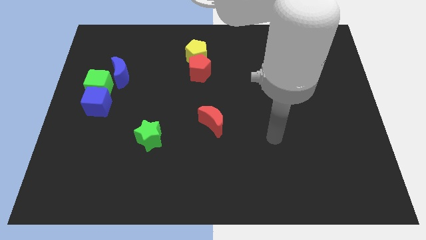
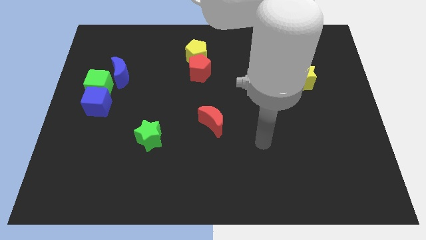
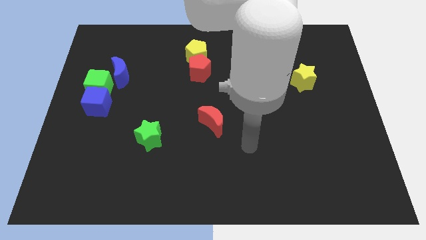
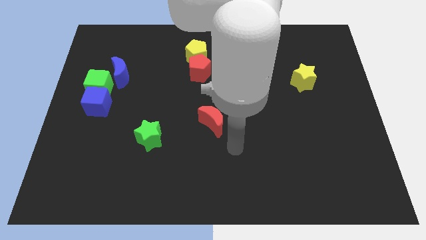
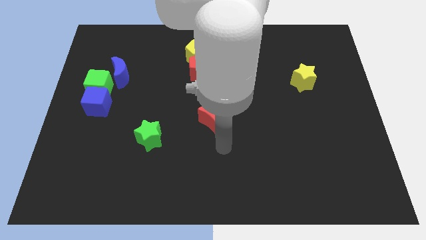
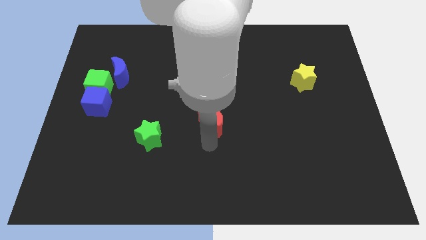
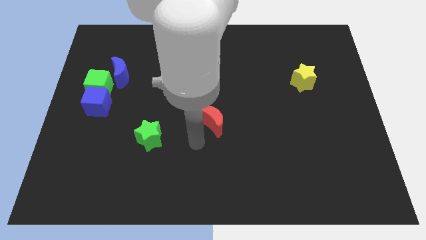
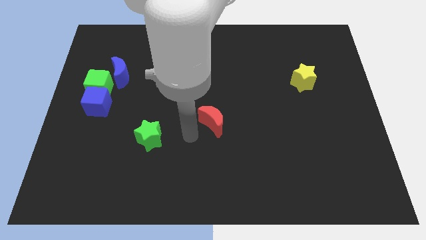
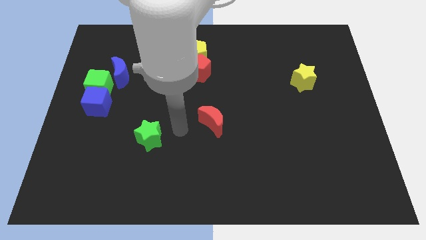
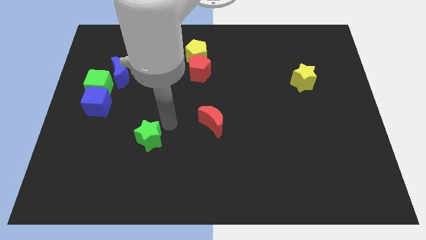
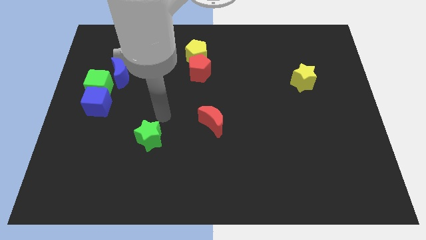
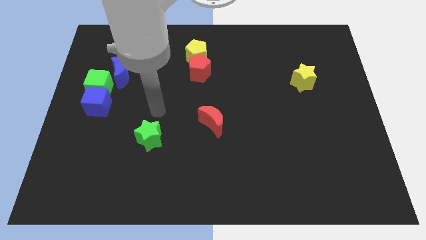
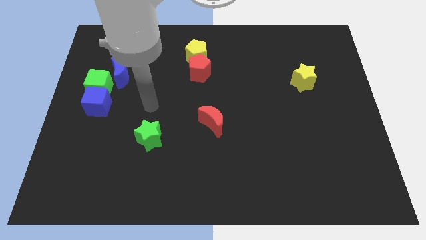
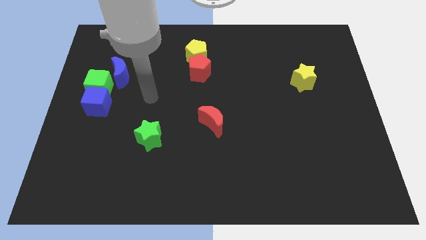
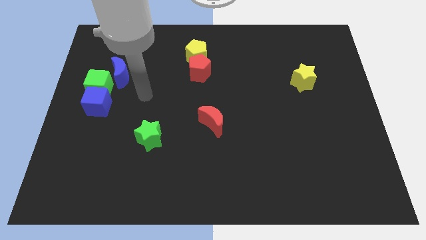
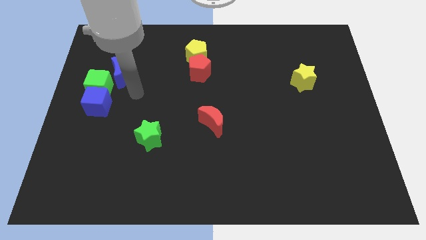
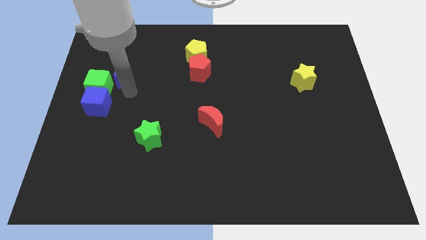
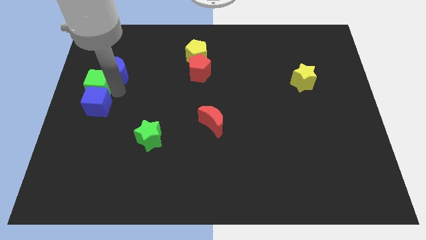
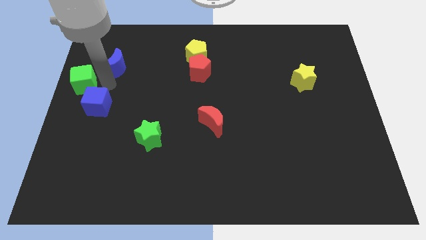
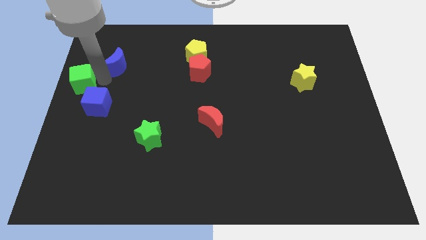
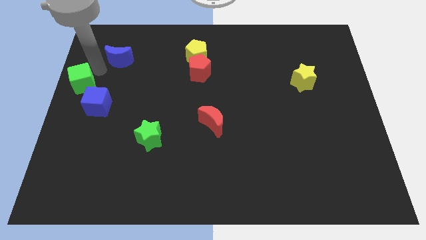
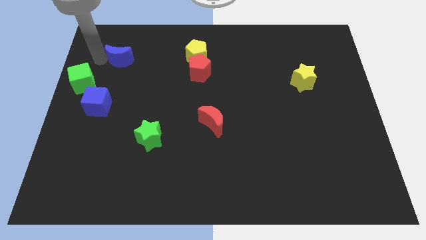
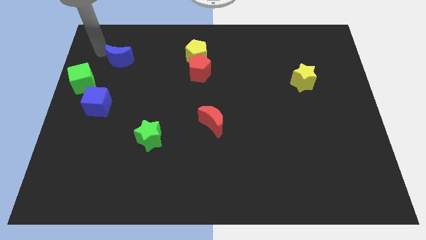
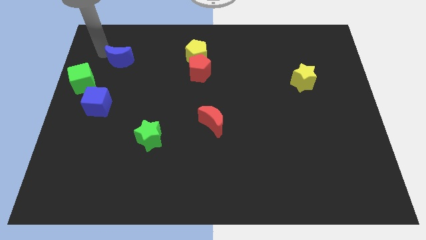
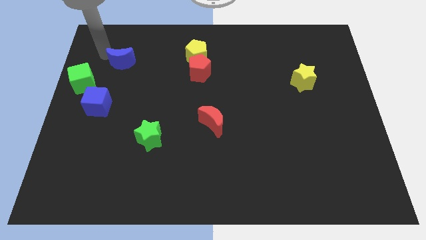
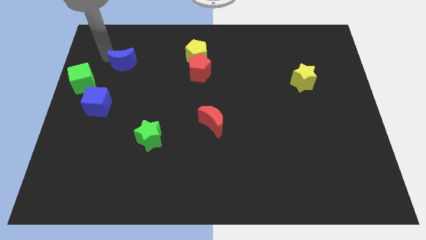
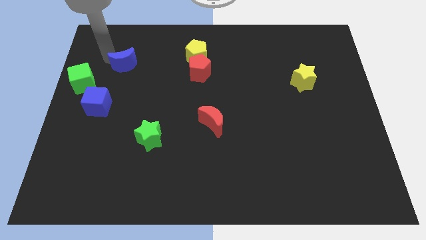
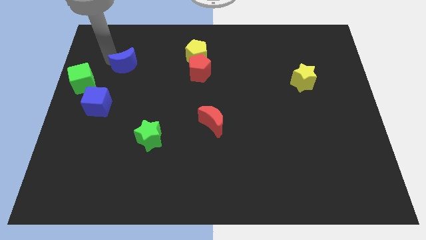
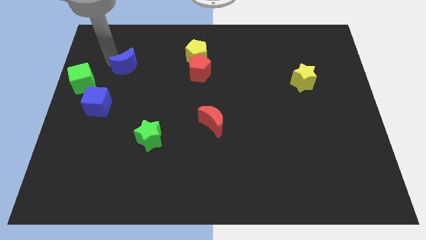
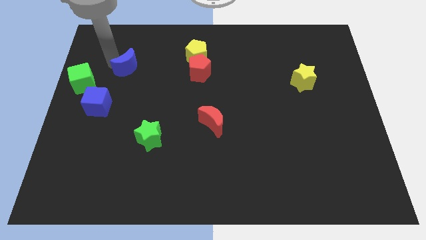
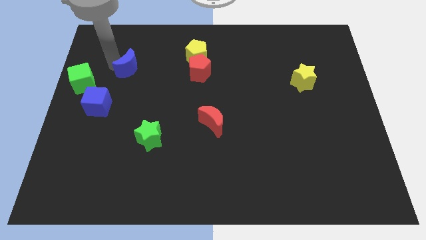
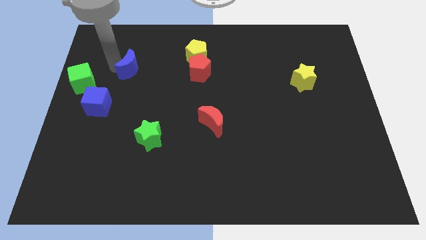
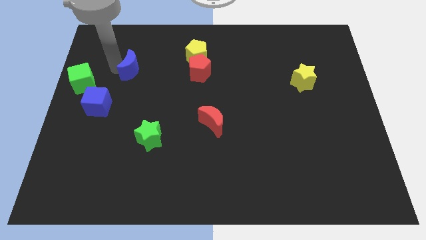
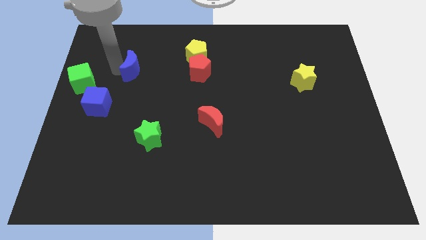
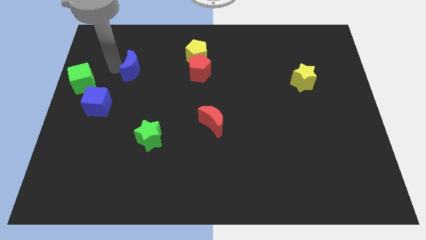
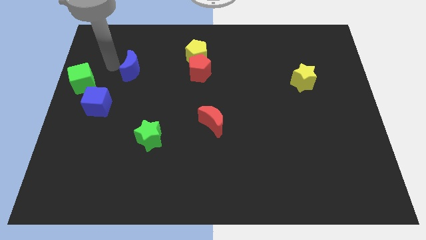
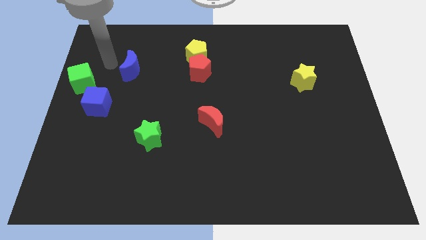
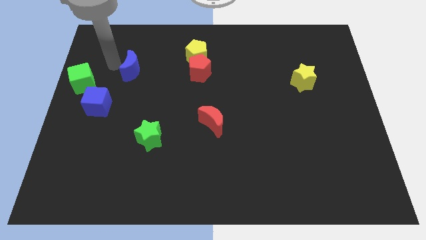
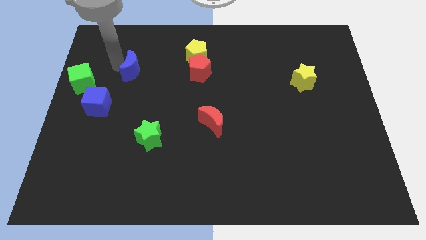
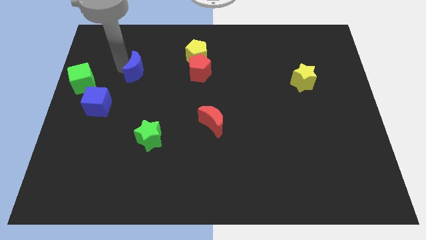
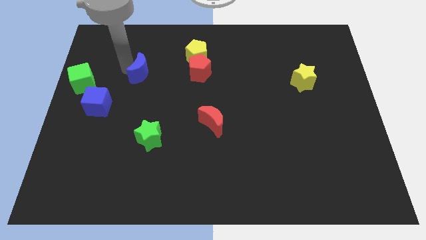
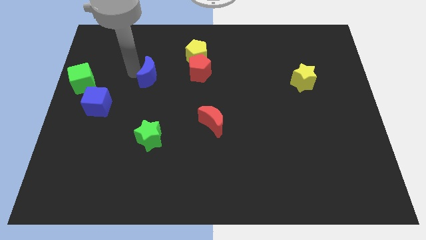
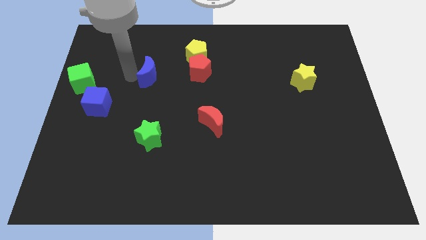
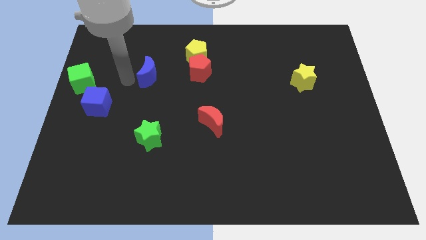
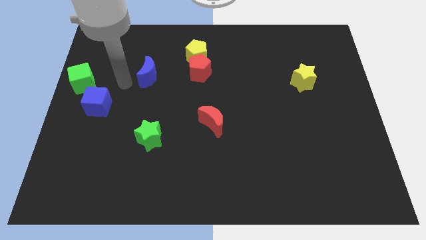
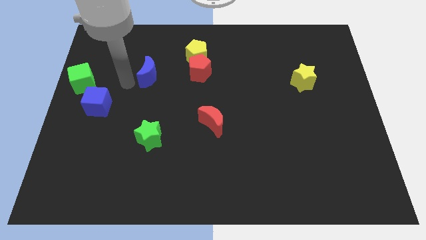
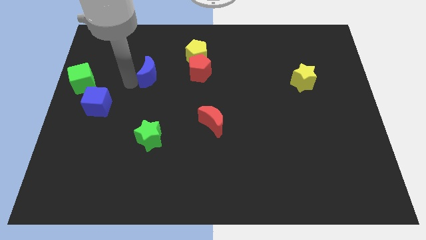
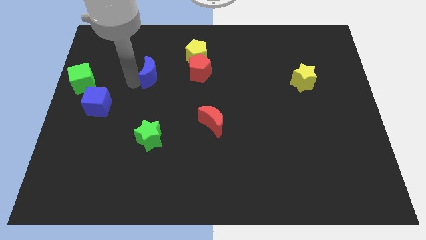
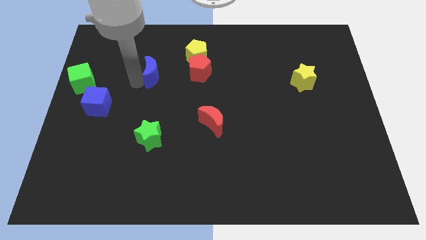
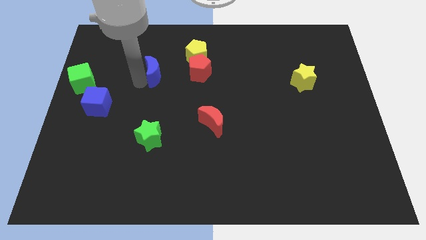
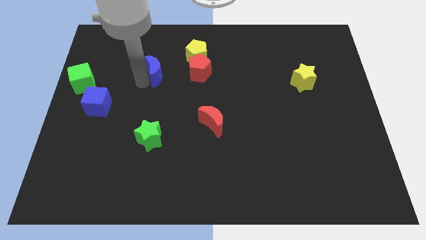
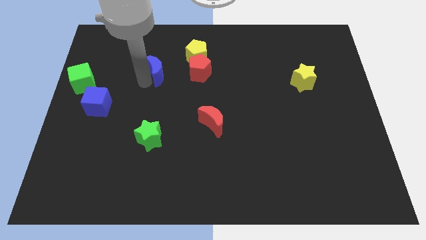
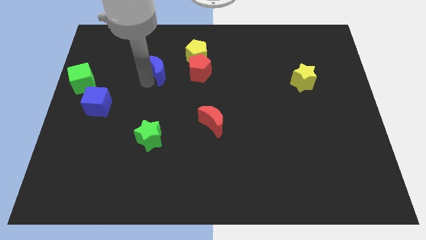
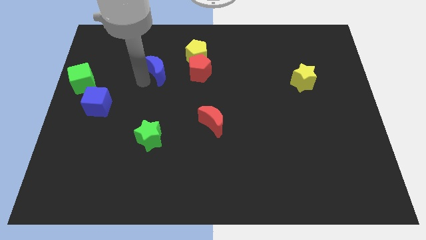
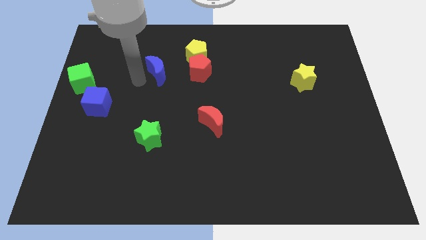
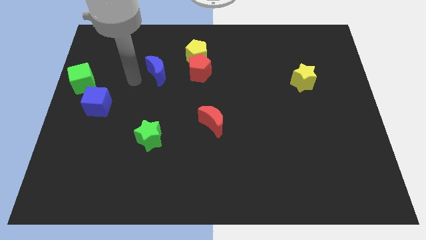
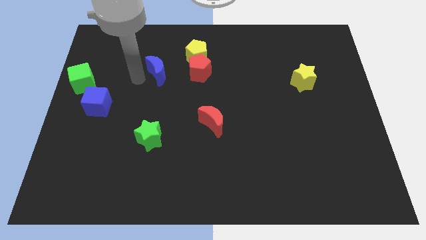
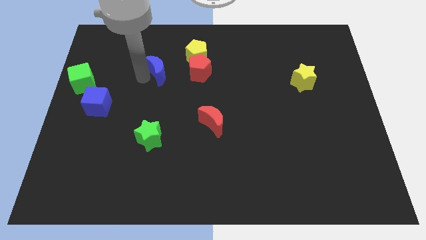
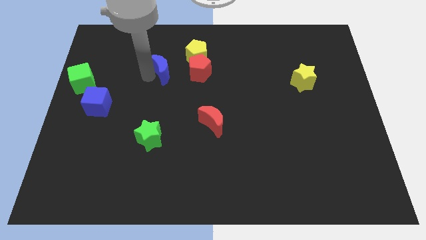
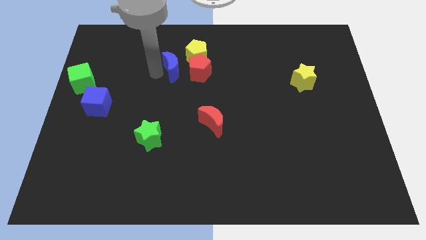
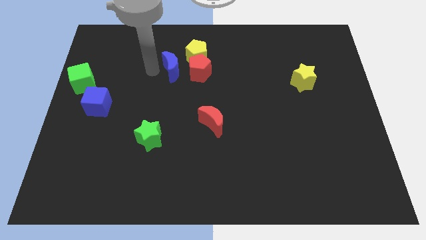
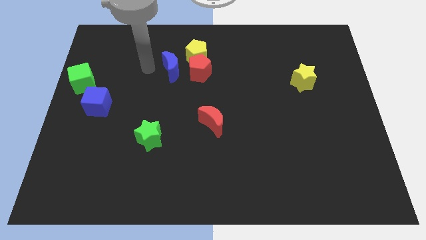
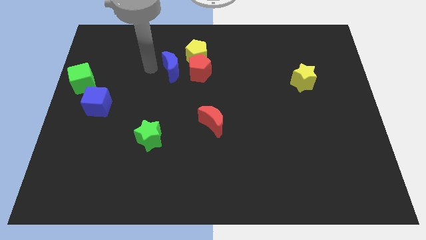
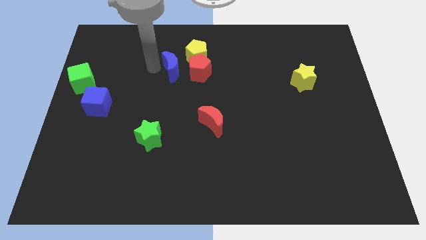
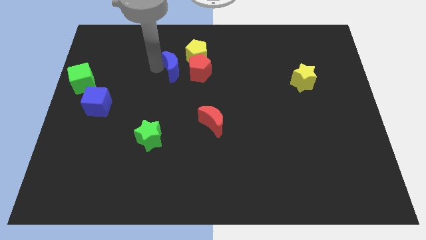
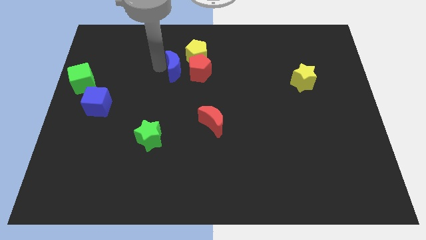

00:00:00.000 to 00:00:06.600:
move the blue moon to the red pentagon
